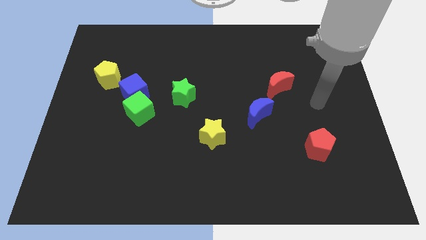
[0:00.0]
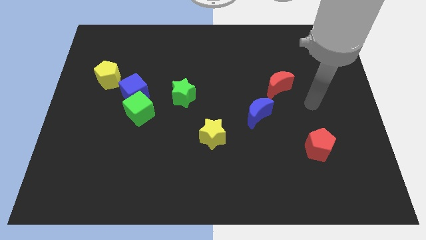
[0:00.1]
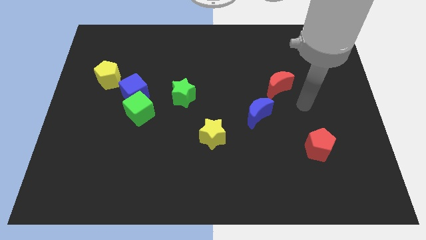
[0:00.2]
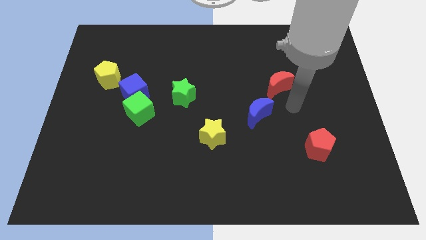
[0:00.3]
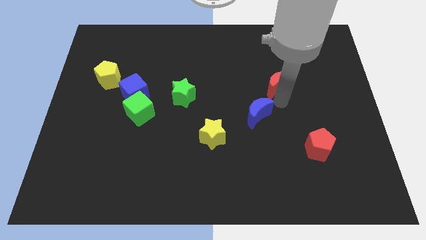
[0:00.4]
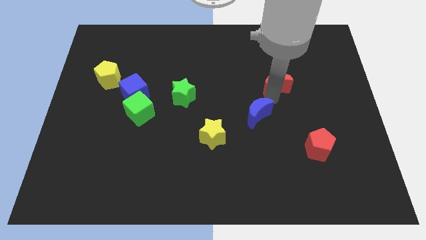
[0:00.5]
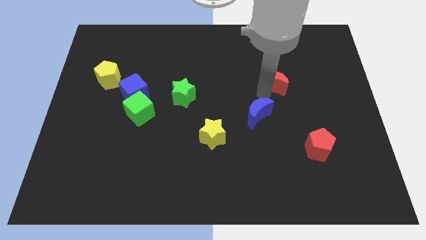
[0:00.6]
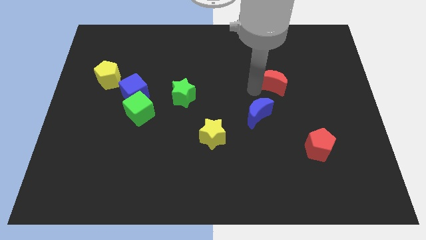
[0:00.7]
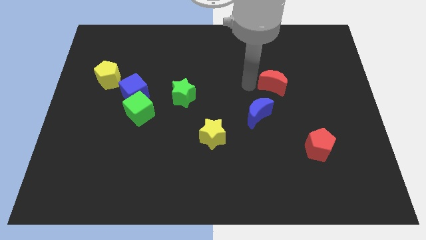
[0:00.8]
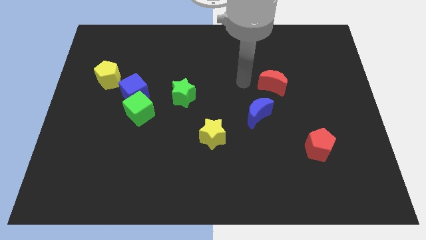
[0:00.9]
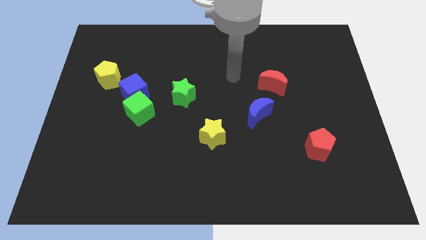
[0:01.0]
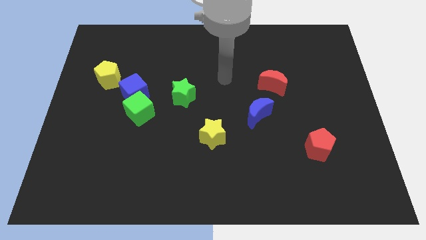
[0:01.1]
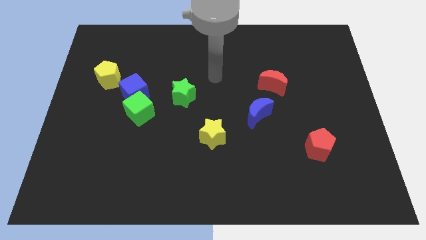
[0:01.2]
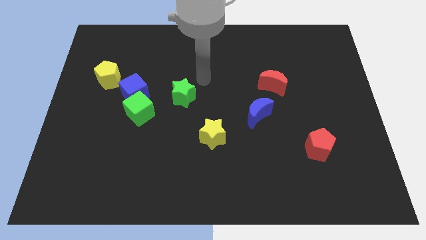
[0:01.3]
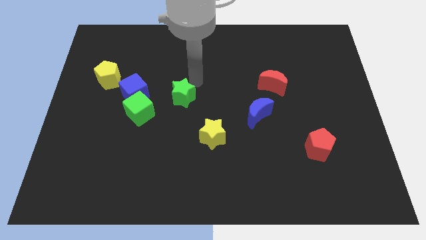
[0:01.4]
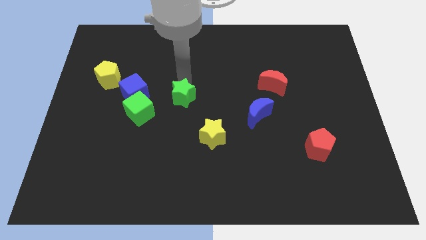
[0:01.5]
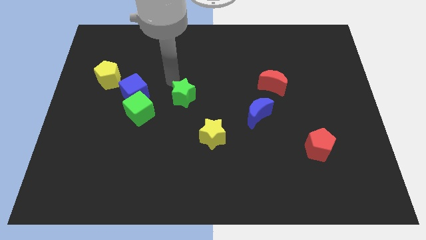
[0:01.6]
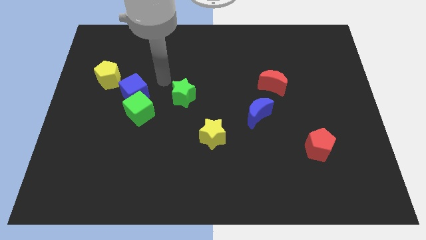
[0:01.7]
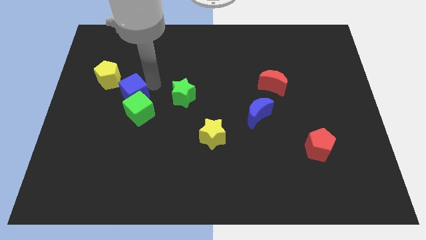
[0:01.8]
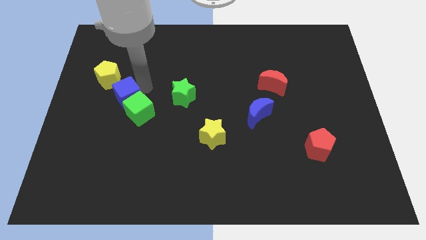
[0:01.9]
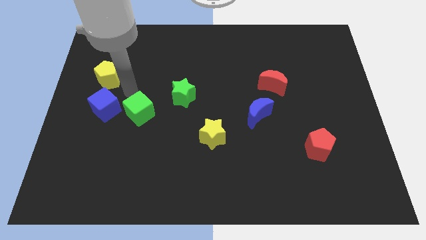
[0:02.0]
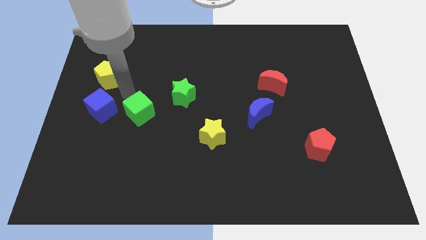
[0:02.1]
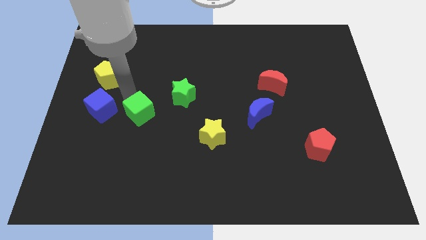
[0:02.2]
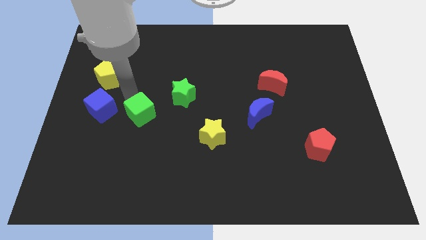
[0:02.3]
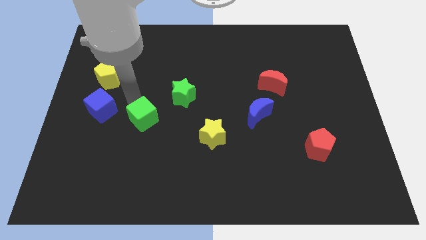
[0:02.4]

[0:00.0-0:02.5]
pull the green cube apart from the blue cube

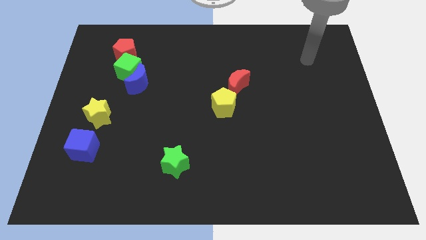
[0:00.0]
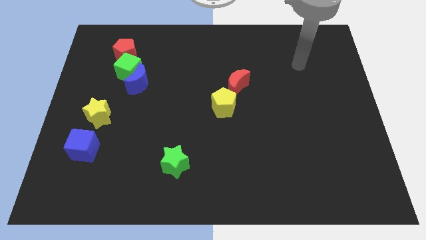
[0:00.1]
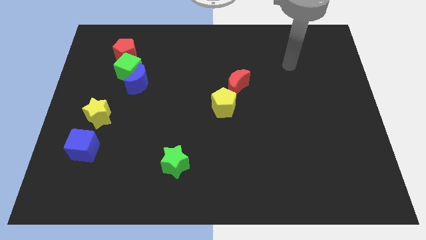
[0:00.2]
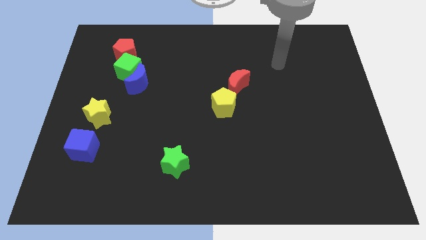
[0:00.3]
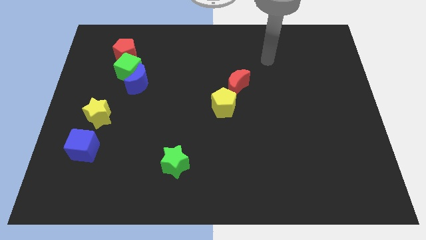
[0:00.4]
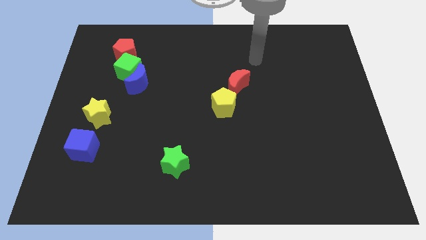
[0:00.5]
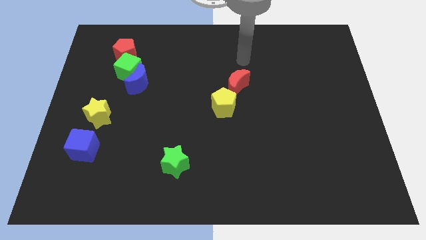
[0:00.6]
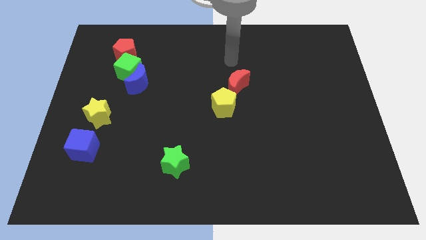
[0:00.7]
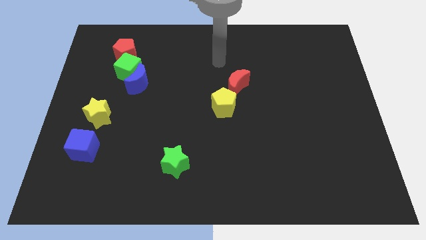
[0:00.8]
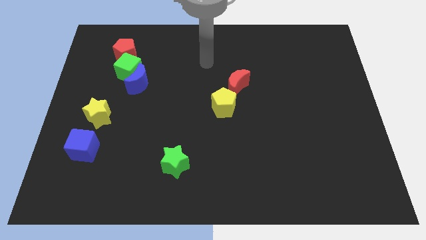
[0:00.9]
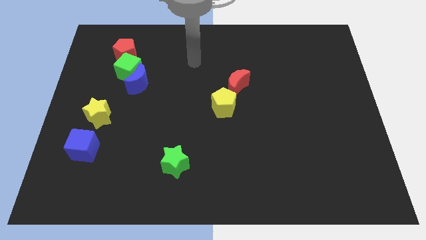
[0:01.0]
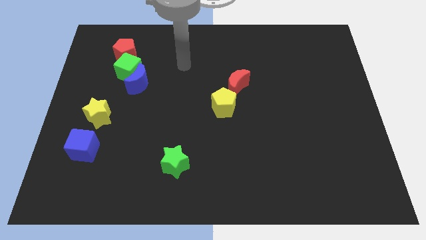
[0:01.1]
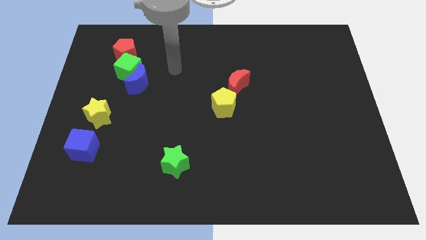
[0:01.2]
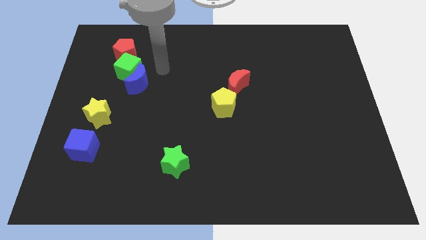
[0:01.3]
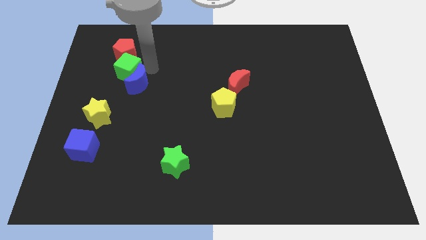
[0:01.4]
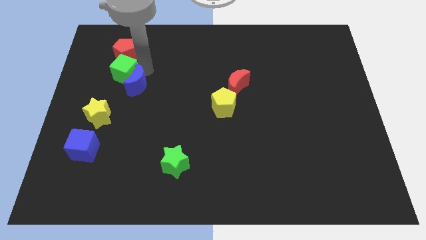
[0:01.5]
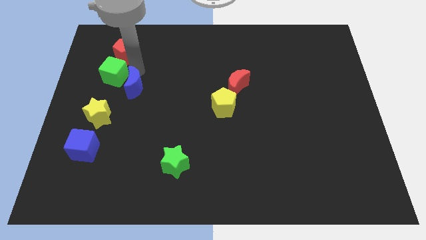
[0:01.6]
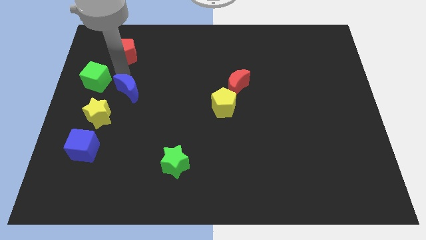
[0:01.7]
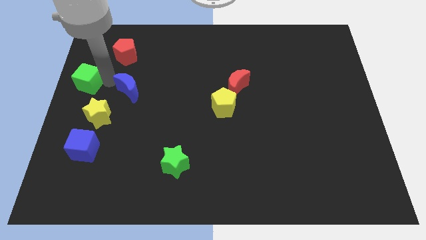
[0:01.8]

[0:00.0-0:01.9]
pull the blue moon apart from the green cube

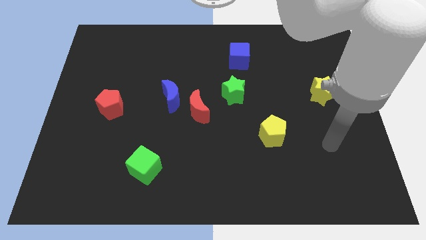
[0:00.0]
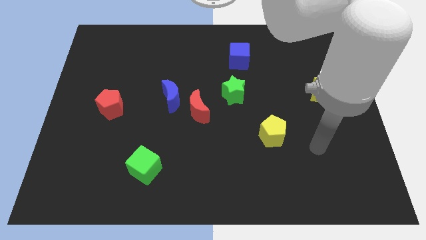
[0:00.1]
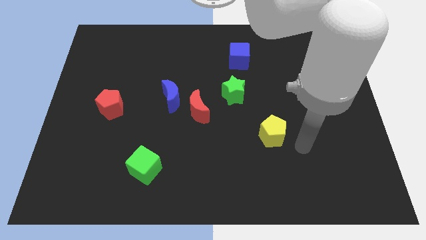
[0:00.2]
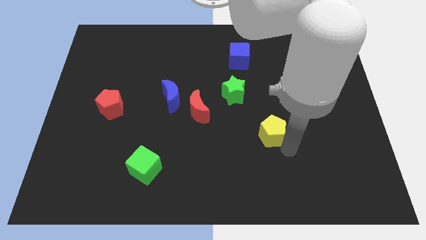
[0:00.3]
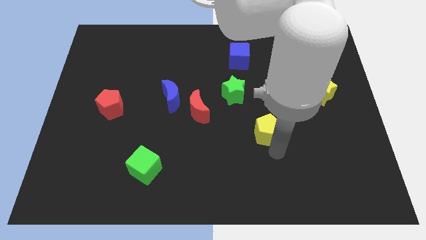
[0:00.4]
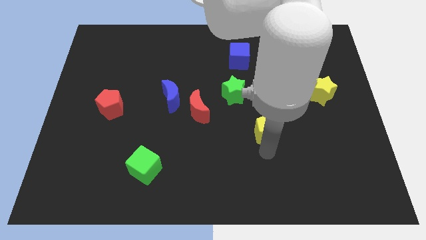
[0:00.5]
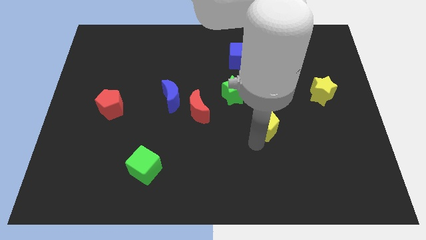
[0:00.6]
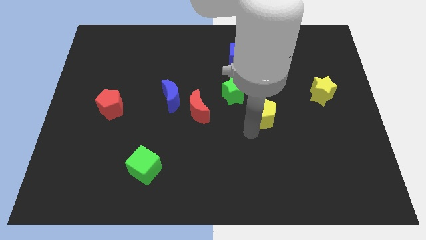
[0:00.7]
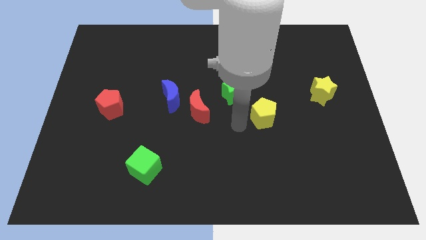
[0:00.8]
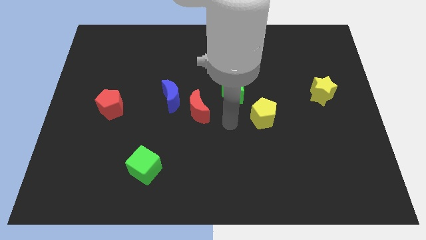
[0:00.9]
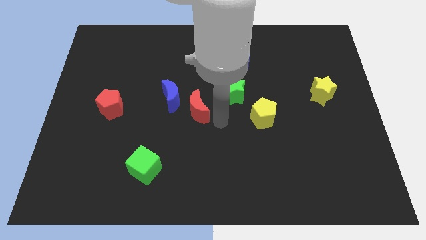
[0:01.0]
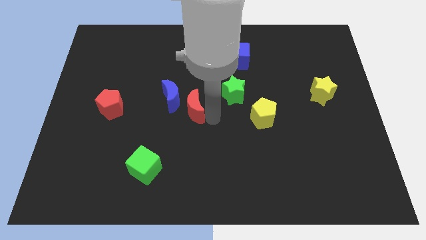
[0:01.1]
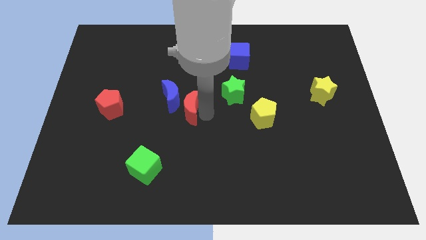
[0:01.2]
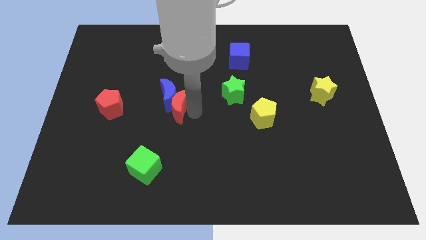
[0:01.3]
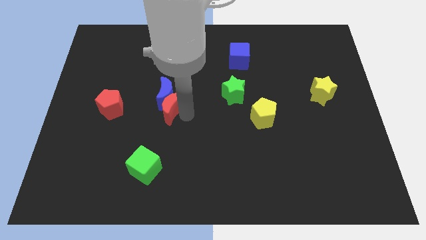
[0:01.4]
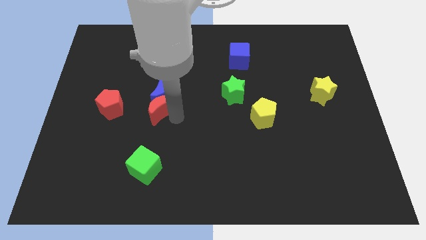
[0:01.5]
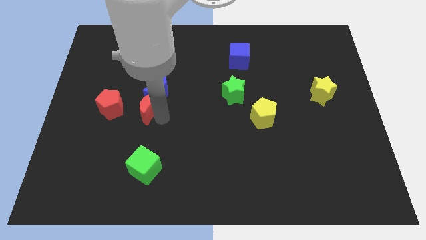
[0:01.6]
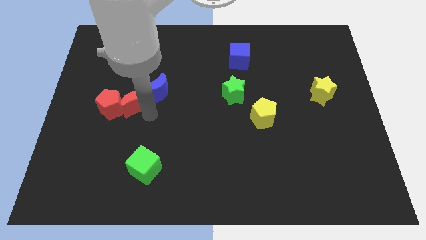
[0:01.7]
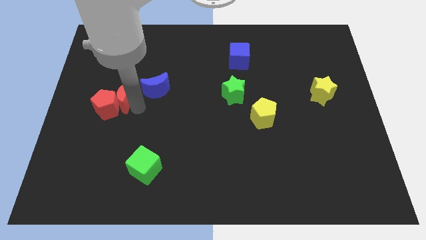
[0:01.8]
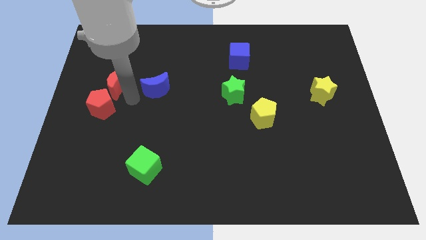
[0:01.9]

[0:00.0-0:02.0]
pull the blue moon apart from the red moon

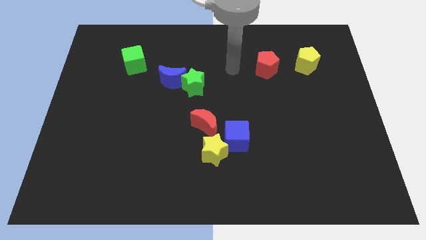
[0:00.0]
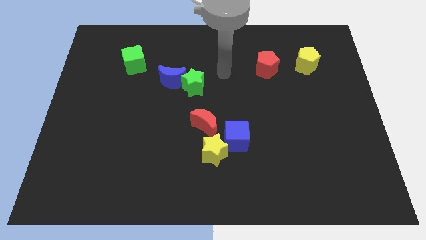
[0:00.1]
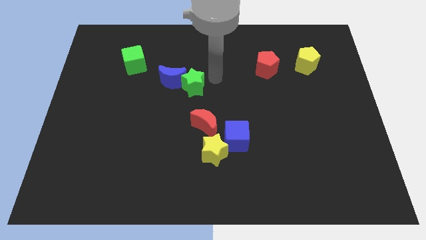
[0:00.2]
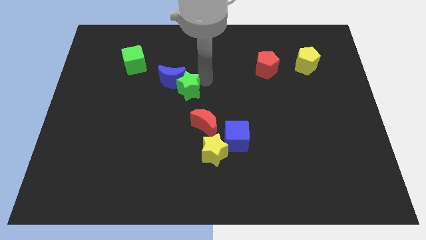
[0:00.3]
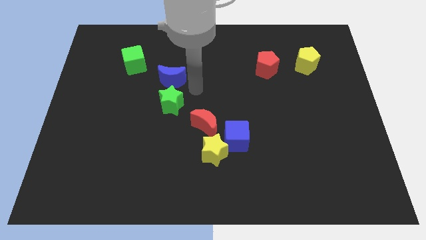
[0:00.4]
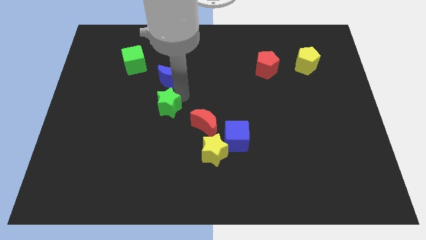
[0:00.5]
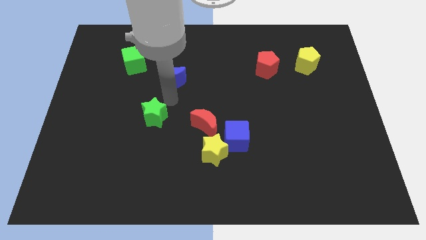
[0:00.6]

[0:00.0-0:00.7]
pull the blue moon apart from the green star

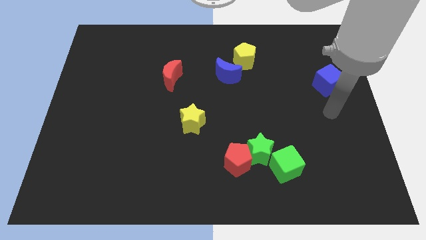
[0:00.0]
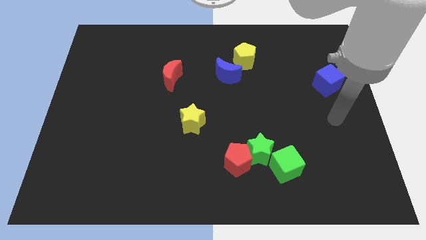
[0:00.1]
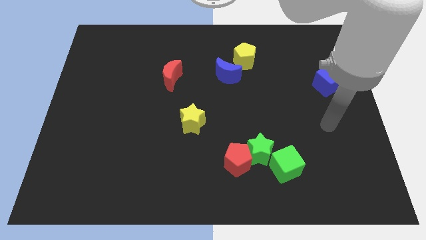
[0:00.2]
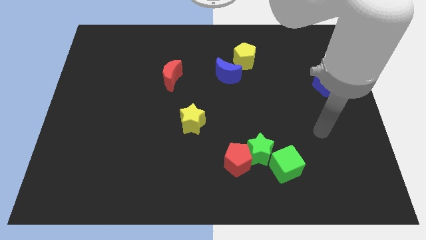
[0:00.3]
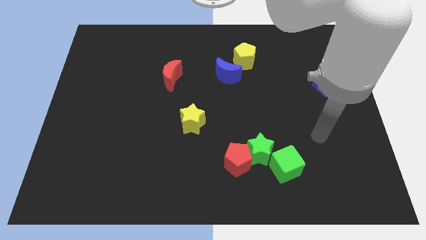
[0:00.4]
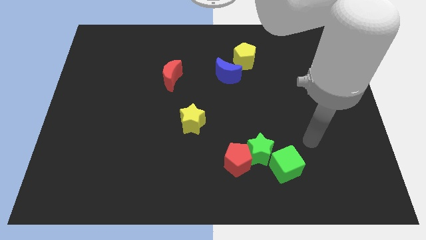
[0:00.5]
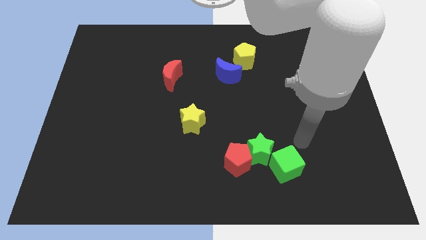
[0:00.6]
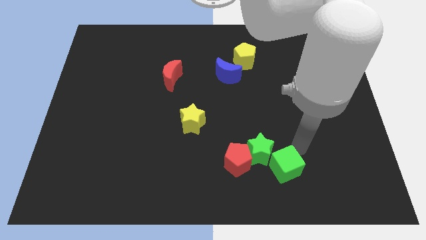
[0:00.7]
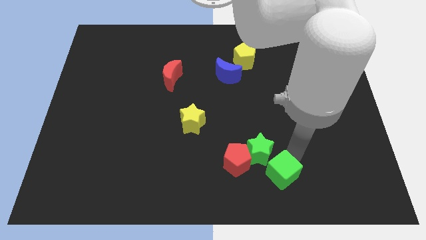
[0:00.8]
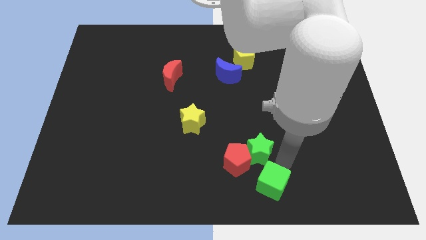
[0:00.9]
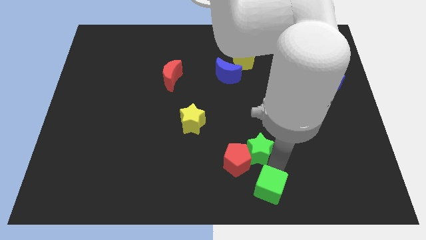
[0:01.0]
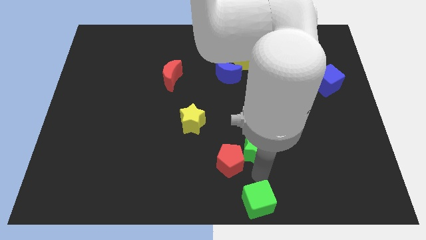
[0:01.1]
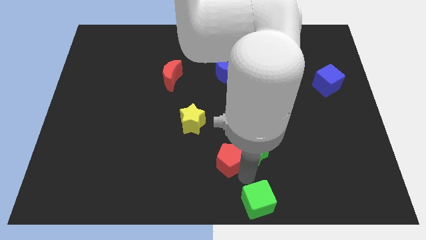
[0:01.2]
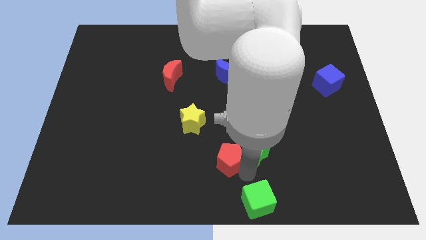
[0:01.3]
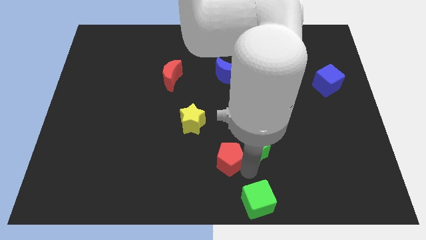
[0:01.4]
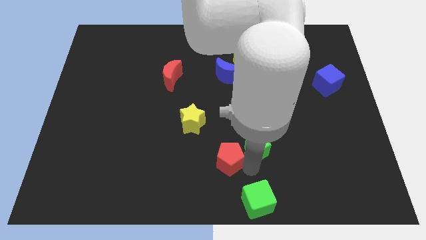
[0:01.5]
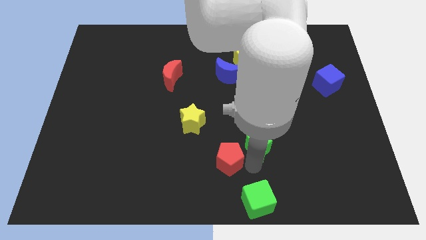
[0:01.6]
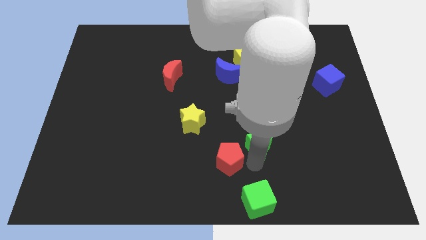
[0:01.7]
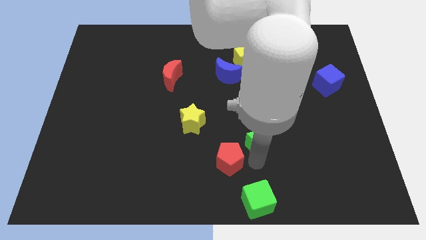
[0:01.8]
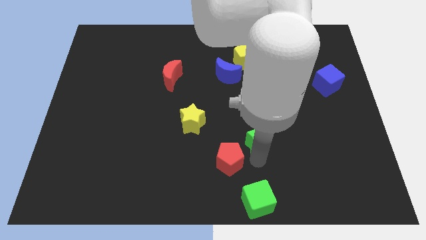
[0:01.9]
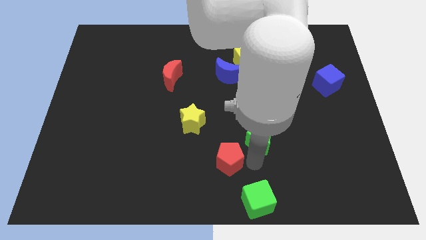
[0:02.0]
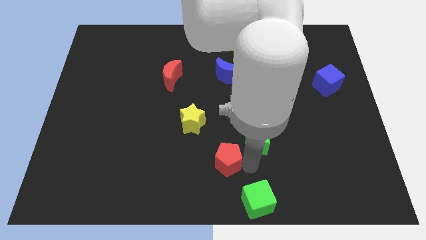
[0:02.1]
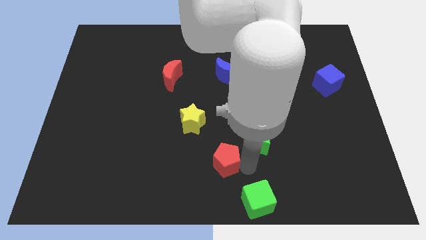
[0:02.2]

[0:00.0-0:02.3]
separate the green star from the red pentagon and green cube
